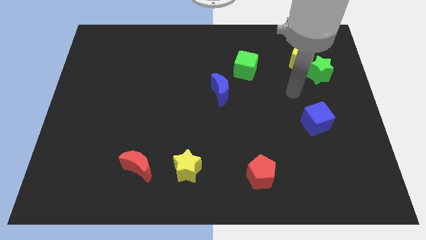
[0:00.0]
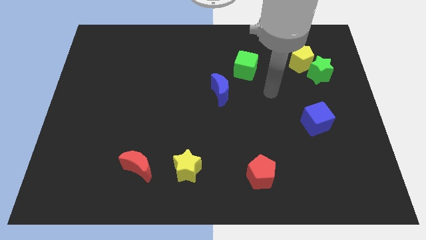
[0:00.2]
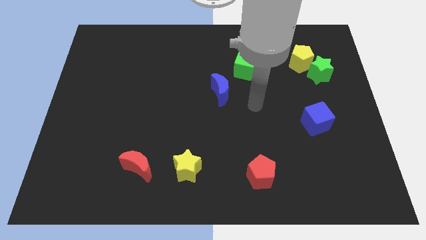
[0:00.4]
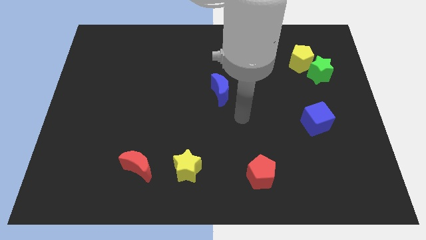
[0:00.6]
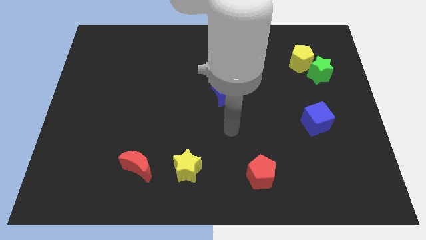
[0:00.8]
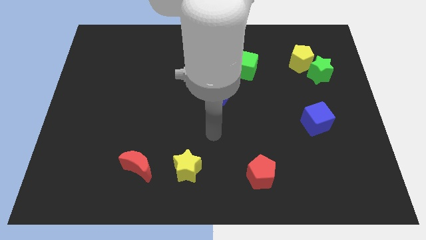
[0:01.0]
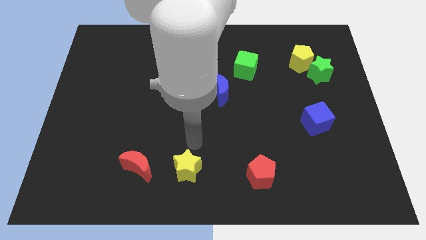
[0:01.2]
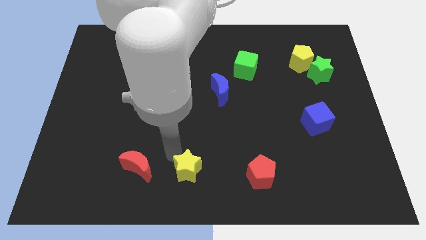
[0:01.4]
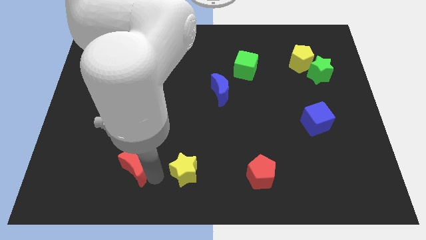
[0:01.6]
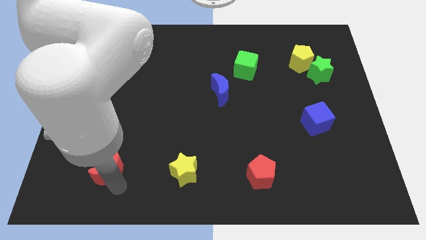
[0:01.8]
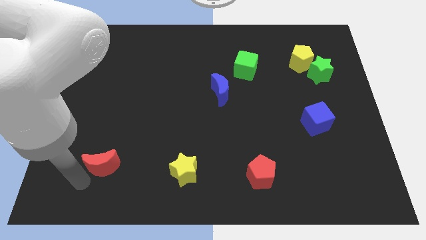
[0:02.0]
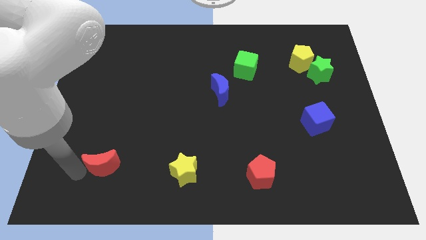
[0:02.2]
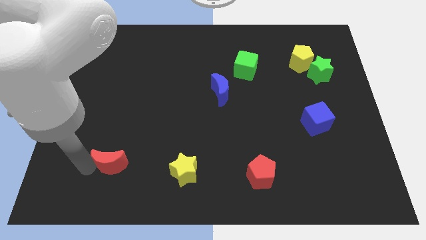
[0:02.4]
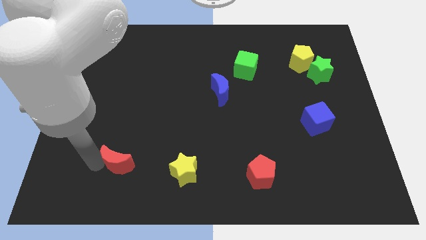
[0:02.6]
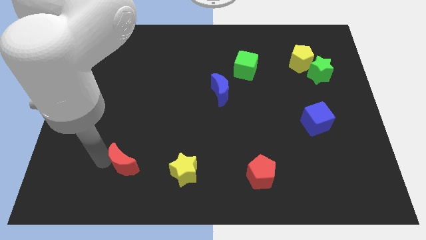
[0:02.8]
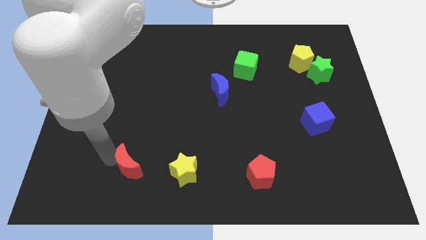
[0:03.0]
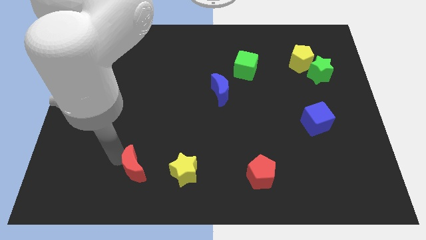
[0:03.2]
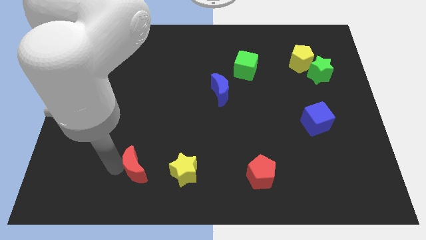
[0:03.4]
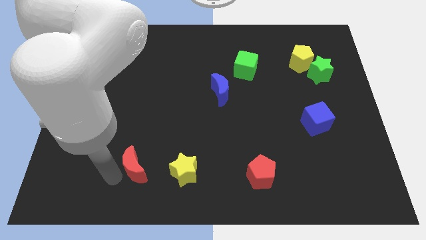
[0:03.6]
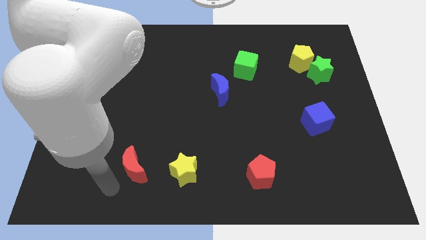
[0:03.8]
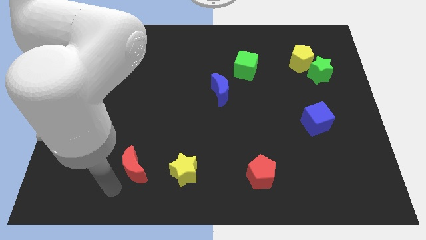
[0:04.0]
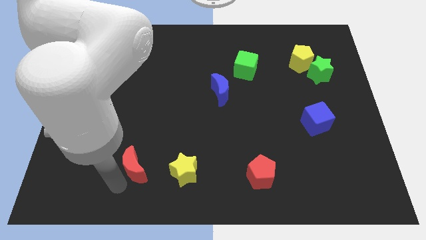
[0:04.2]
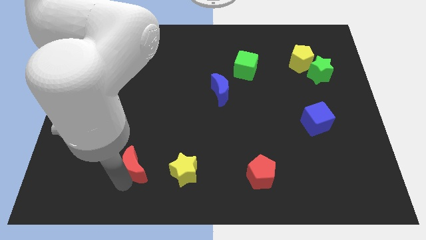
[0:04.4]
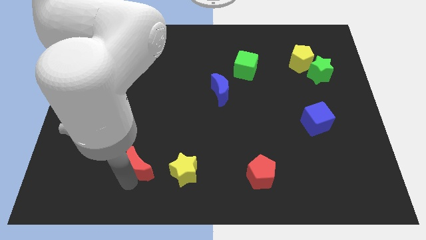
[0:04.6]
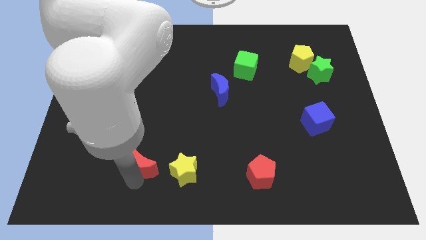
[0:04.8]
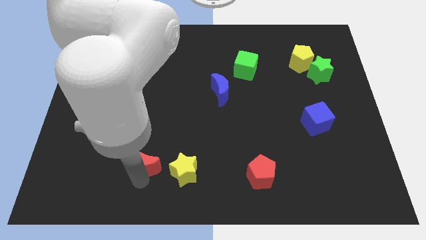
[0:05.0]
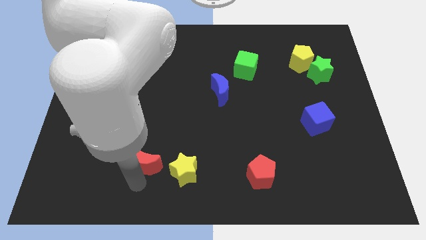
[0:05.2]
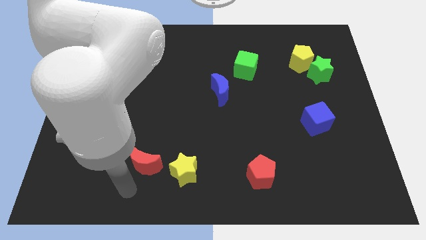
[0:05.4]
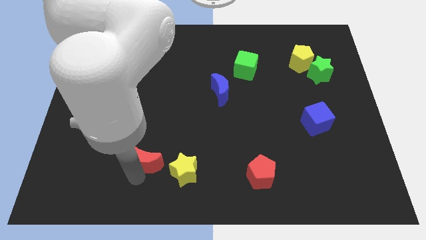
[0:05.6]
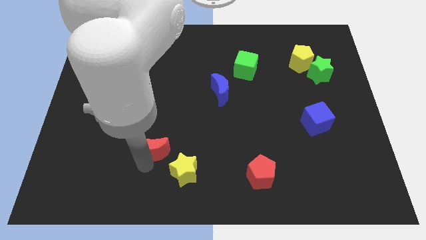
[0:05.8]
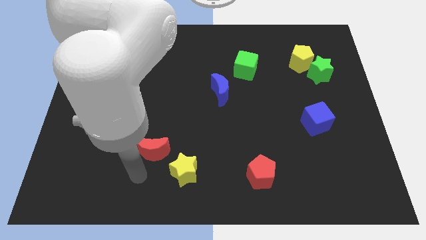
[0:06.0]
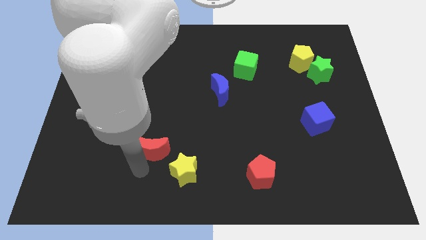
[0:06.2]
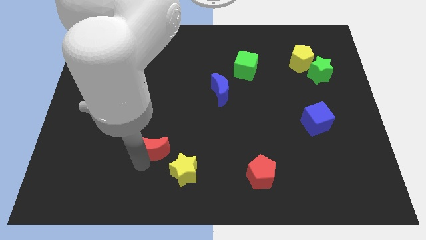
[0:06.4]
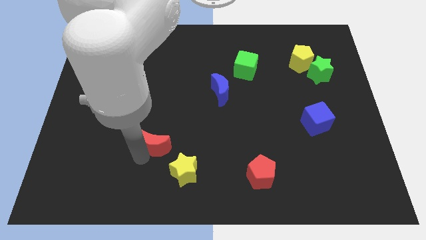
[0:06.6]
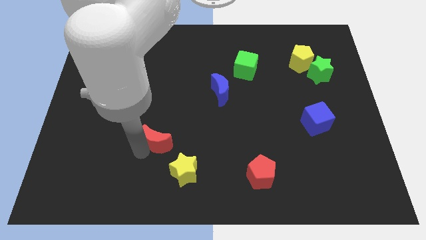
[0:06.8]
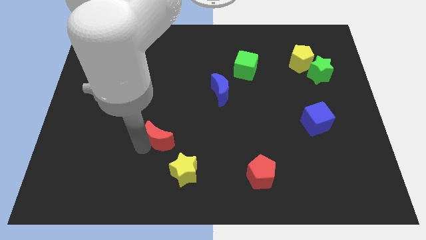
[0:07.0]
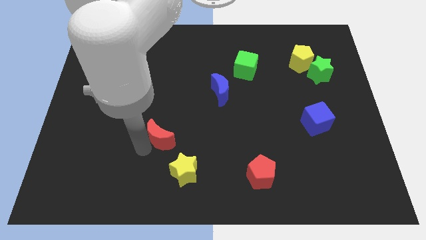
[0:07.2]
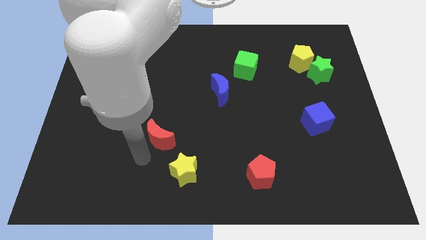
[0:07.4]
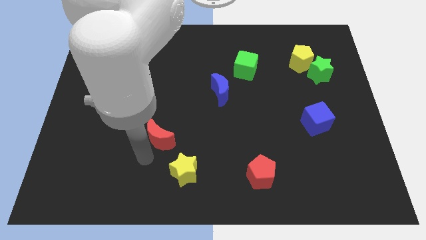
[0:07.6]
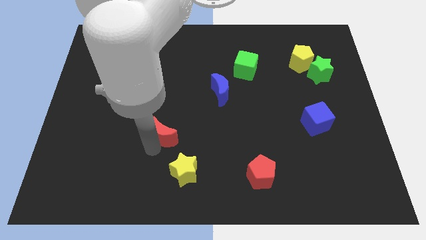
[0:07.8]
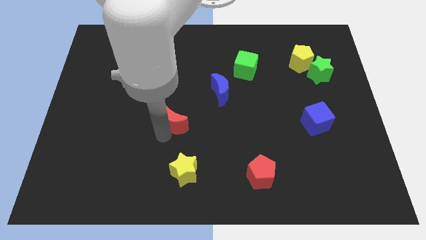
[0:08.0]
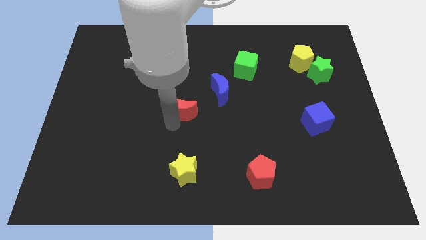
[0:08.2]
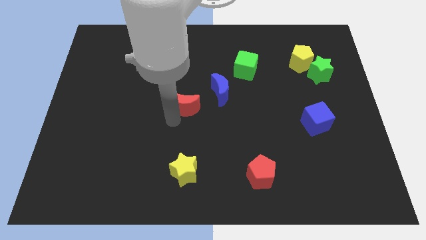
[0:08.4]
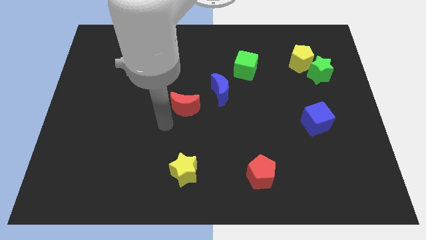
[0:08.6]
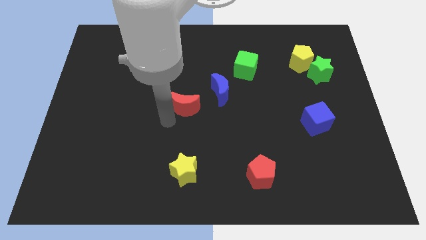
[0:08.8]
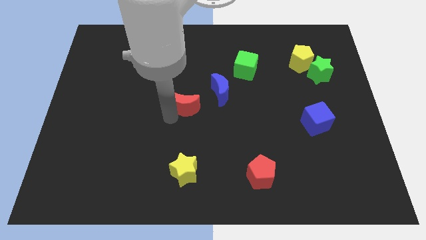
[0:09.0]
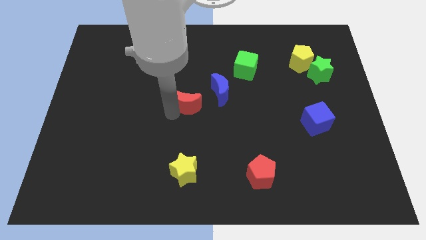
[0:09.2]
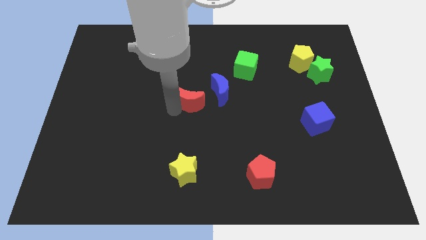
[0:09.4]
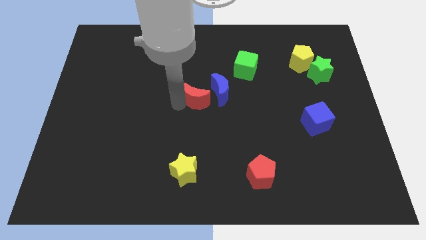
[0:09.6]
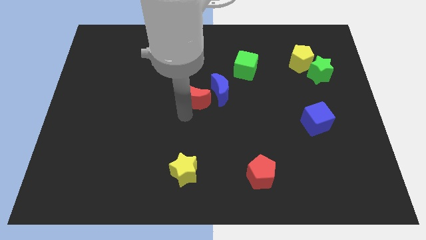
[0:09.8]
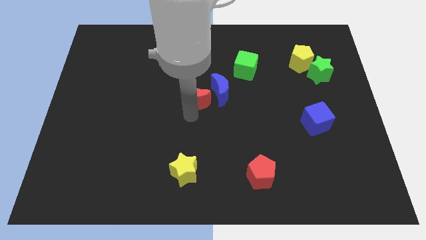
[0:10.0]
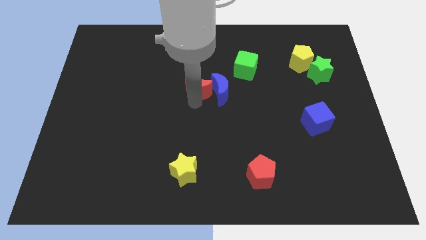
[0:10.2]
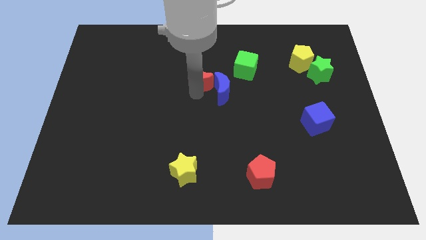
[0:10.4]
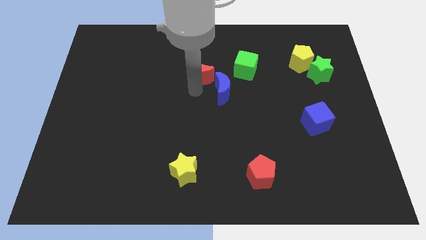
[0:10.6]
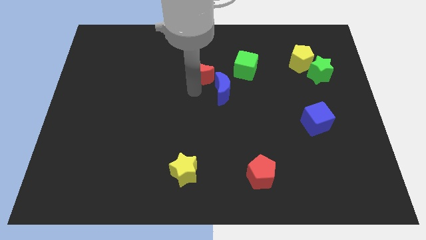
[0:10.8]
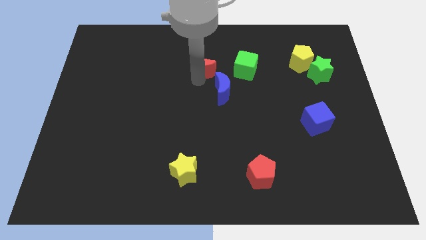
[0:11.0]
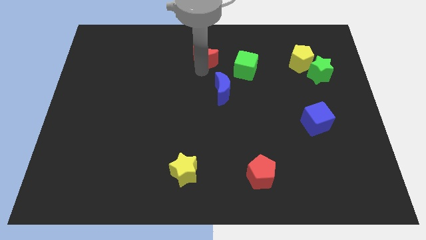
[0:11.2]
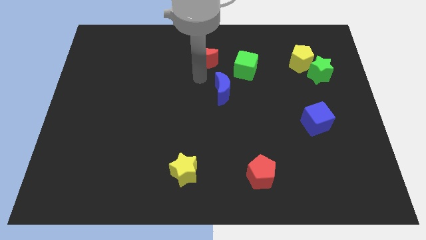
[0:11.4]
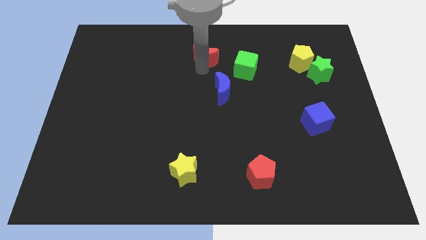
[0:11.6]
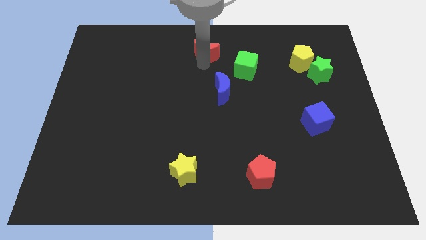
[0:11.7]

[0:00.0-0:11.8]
put the red moon to the top
